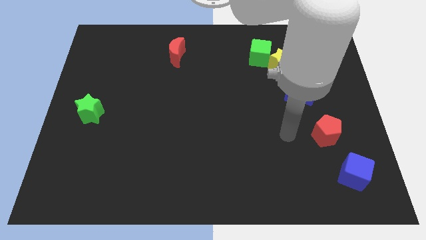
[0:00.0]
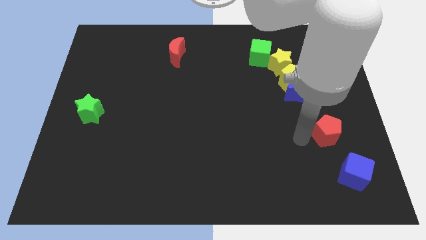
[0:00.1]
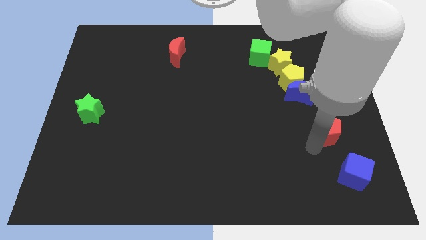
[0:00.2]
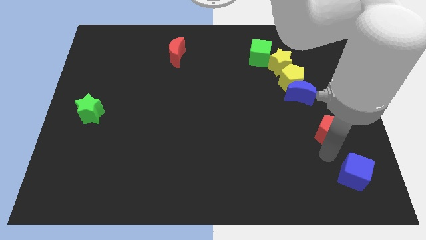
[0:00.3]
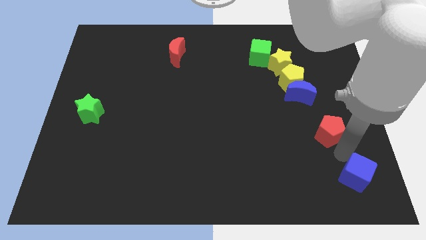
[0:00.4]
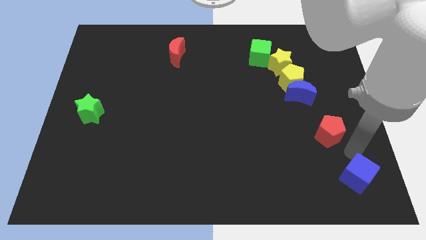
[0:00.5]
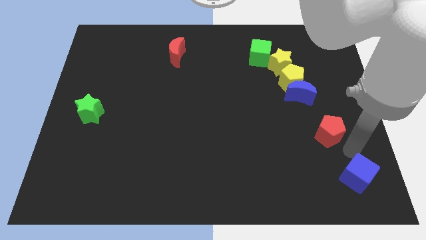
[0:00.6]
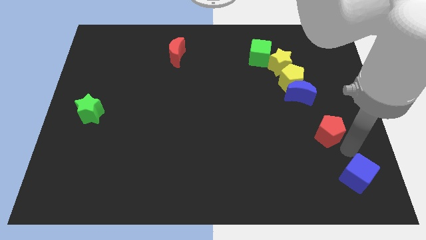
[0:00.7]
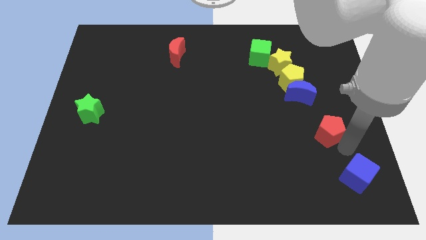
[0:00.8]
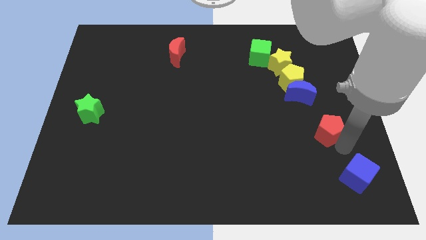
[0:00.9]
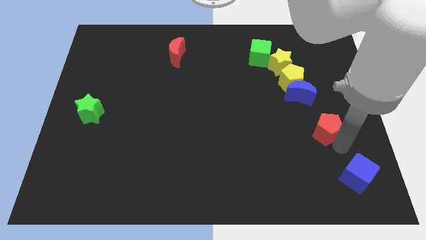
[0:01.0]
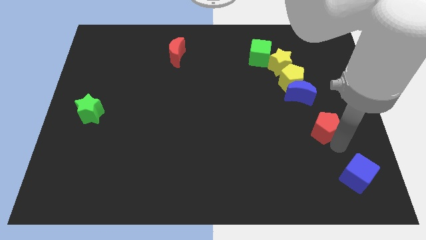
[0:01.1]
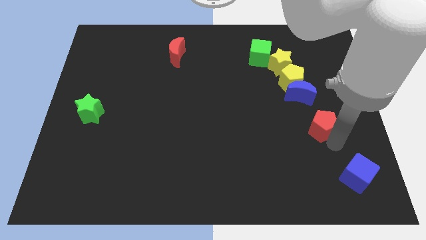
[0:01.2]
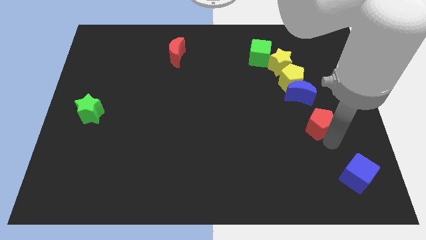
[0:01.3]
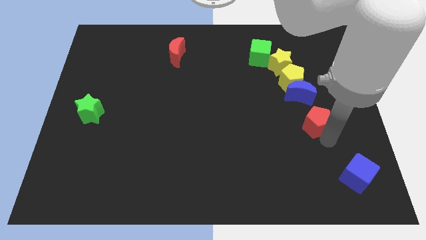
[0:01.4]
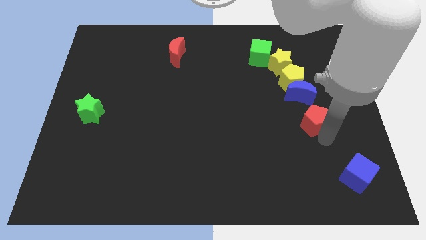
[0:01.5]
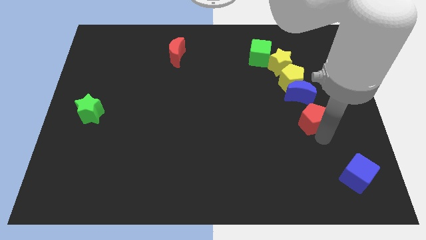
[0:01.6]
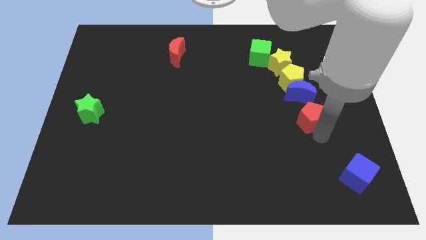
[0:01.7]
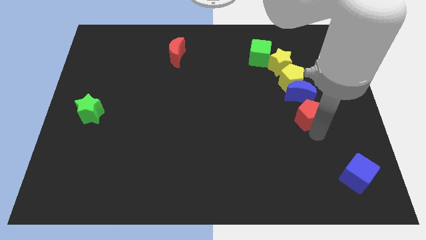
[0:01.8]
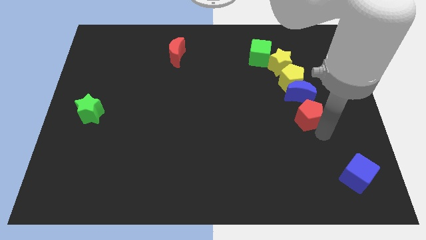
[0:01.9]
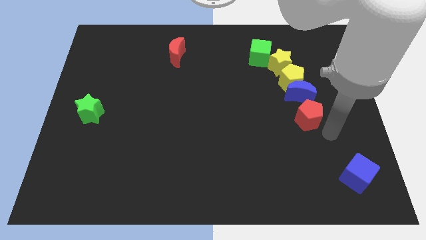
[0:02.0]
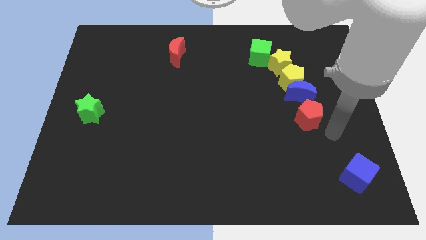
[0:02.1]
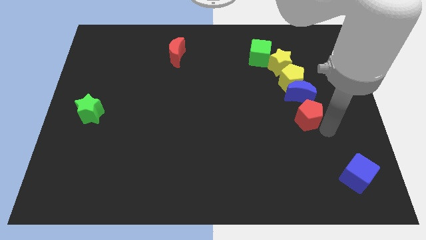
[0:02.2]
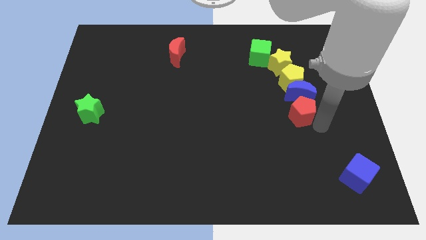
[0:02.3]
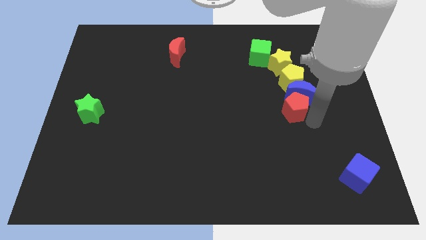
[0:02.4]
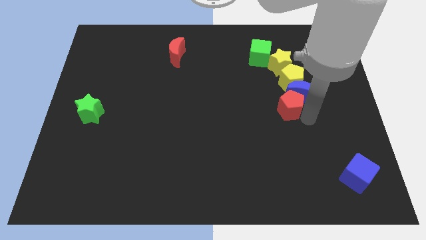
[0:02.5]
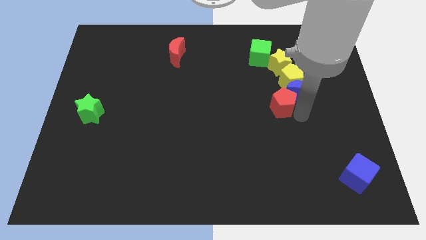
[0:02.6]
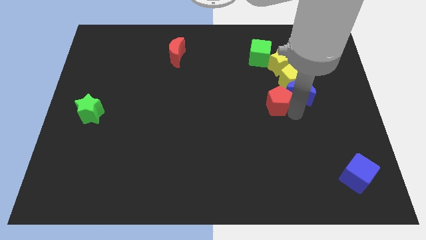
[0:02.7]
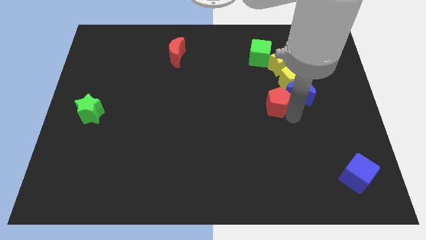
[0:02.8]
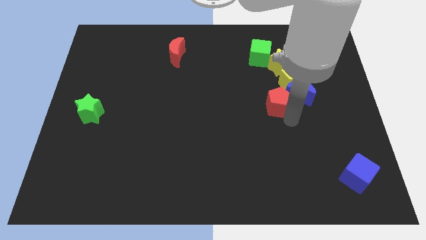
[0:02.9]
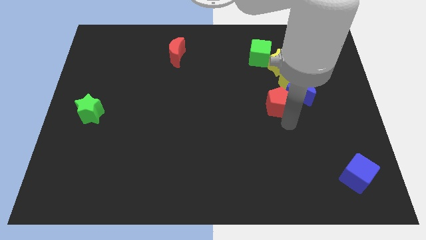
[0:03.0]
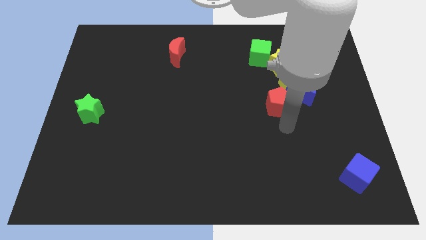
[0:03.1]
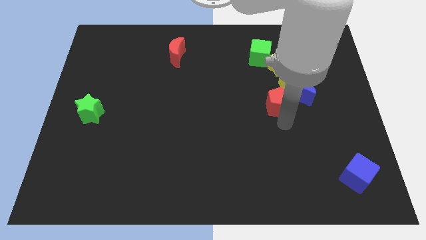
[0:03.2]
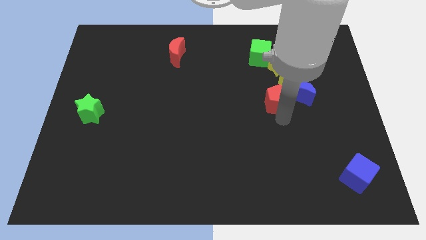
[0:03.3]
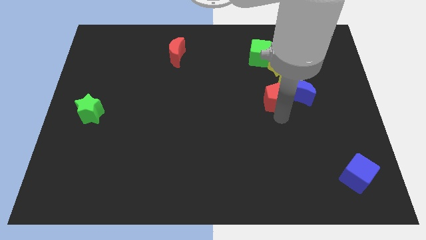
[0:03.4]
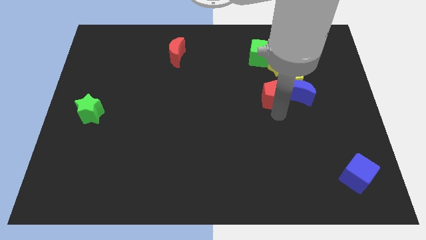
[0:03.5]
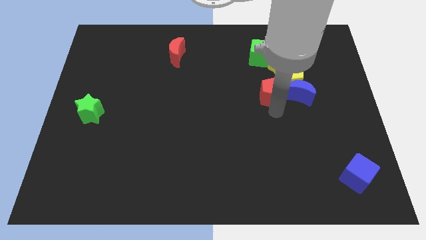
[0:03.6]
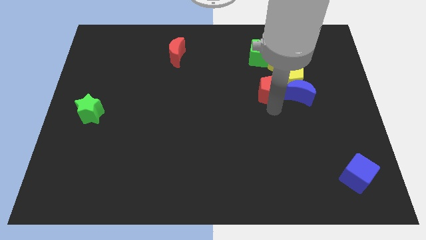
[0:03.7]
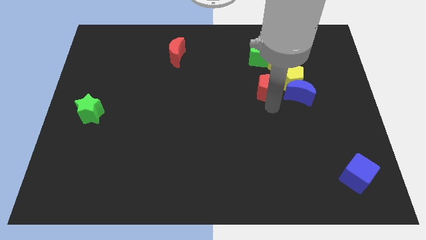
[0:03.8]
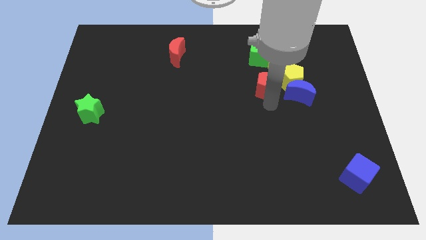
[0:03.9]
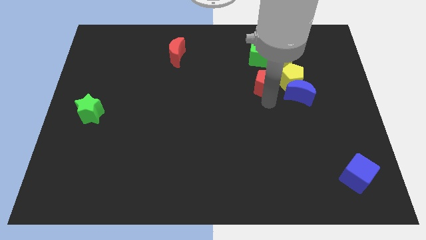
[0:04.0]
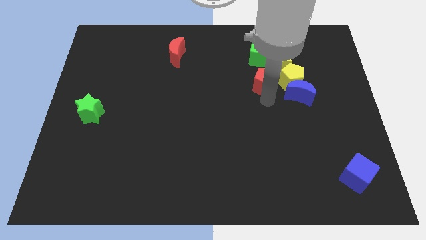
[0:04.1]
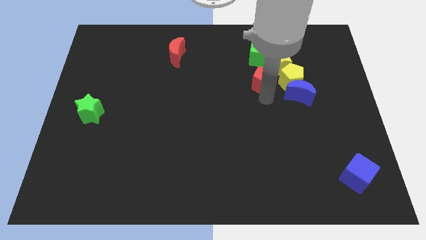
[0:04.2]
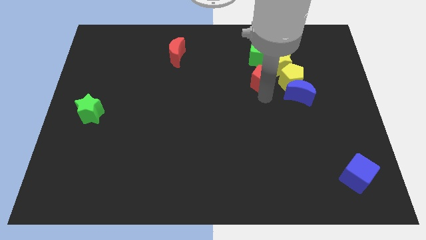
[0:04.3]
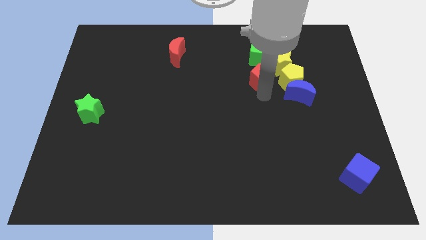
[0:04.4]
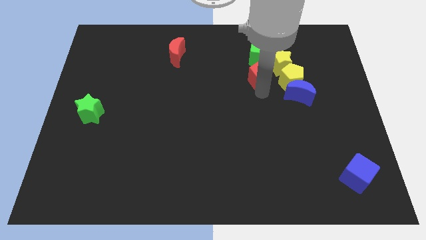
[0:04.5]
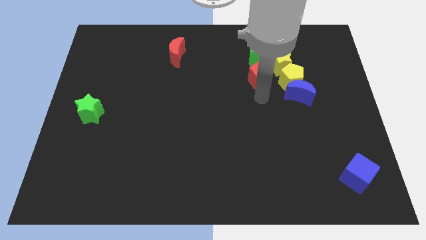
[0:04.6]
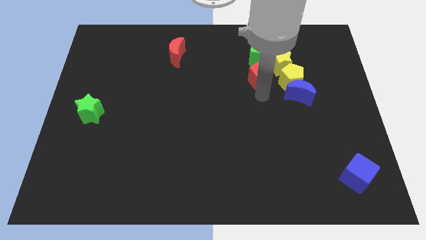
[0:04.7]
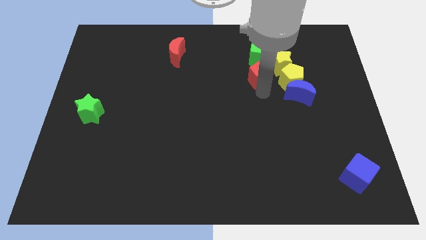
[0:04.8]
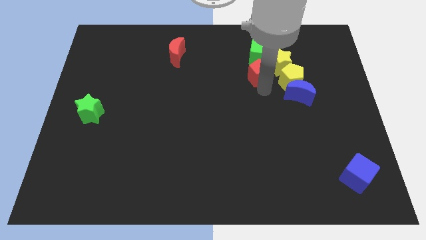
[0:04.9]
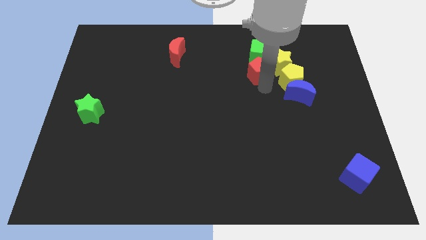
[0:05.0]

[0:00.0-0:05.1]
push the red pentagon to the green cube

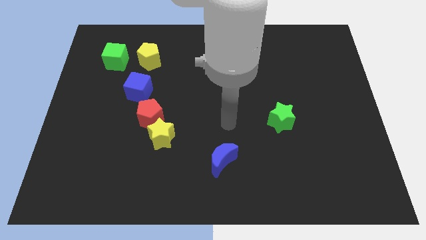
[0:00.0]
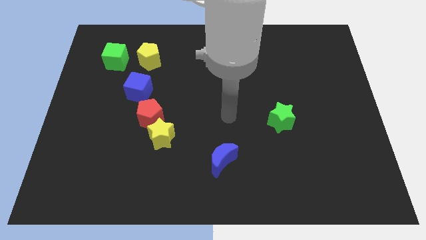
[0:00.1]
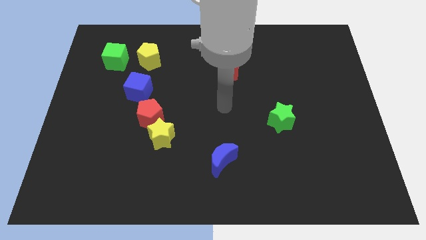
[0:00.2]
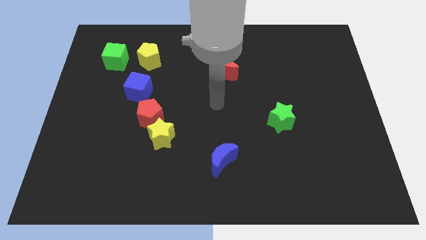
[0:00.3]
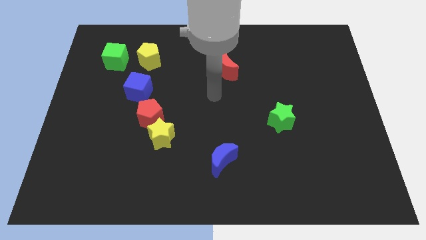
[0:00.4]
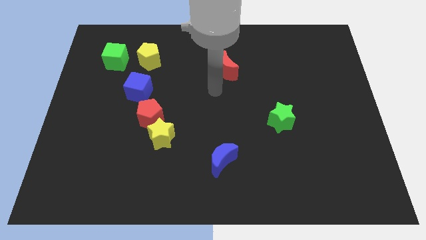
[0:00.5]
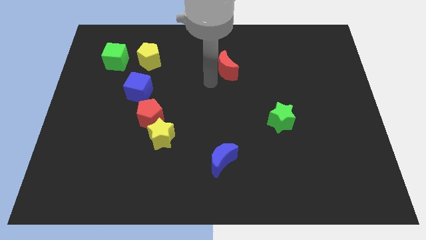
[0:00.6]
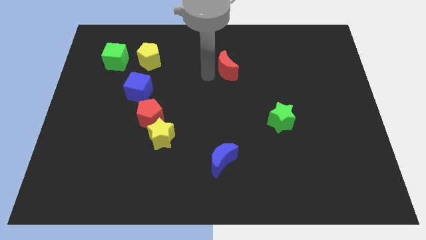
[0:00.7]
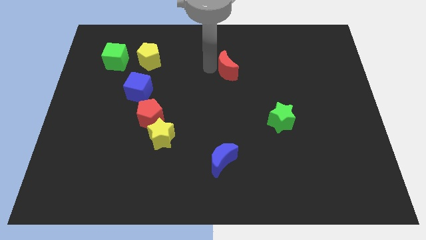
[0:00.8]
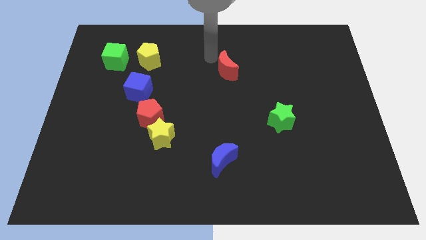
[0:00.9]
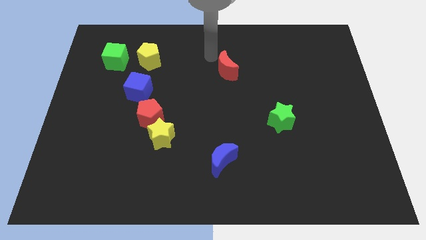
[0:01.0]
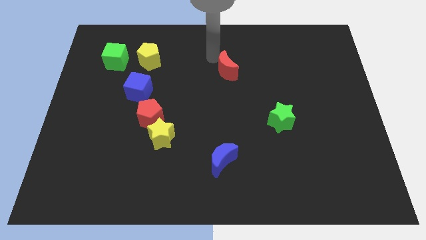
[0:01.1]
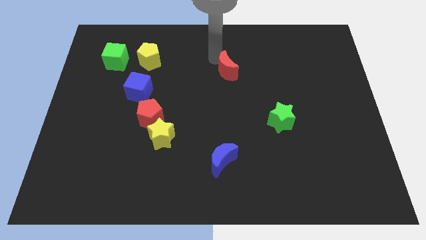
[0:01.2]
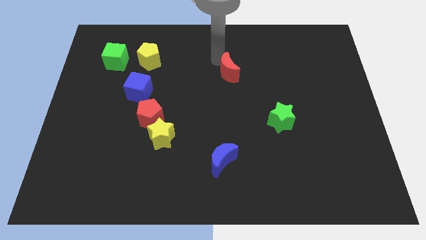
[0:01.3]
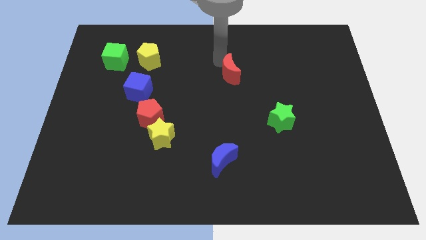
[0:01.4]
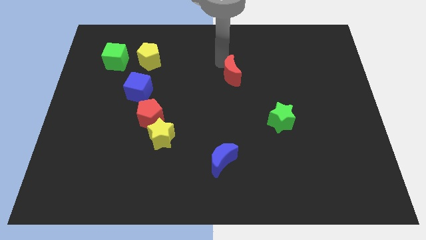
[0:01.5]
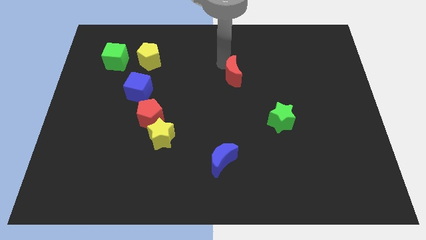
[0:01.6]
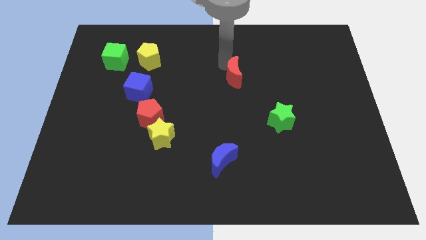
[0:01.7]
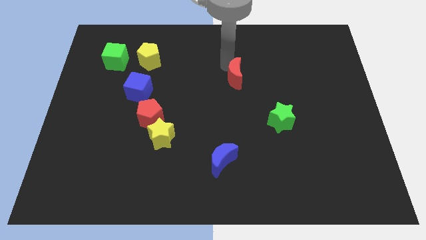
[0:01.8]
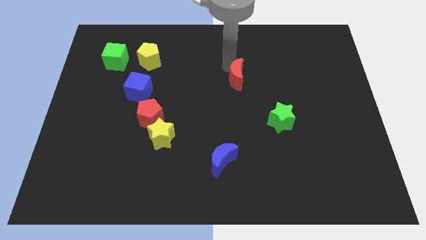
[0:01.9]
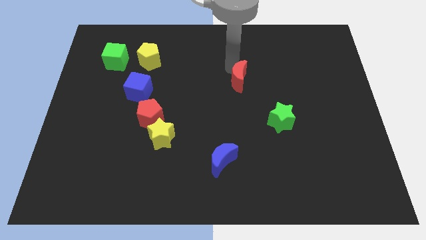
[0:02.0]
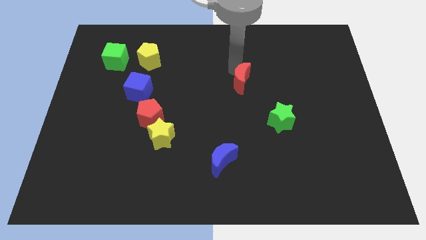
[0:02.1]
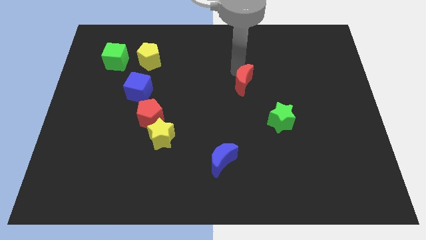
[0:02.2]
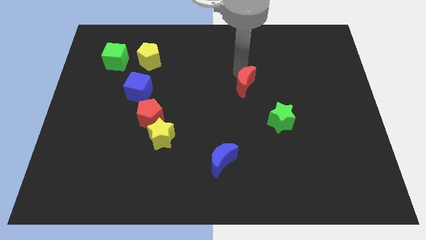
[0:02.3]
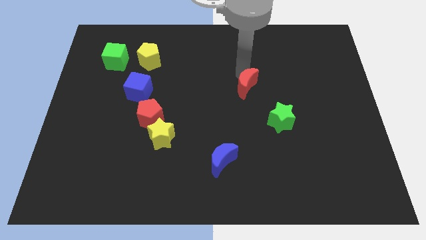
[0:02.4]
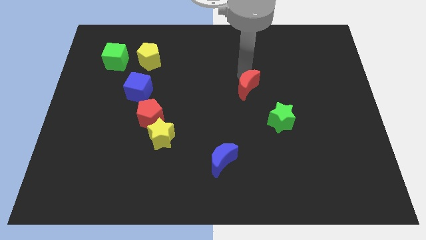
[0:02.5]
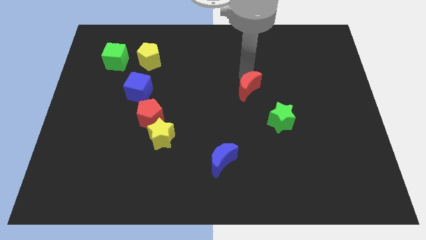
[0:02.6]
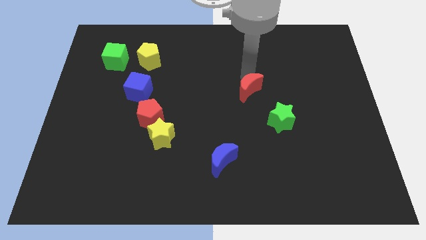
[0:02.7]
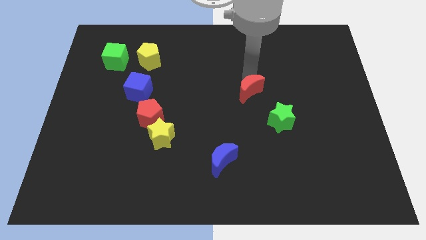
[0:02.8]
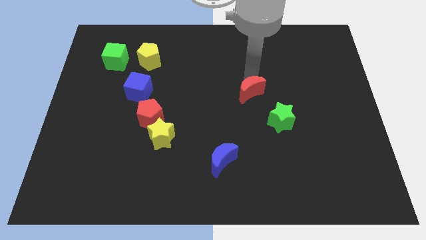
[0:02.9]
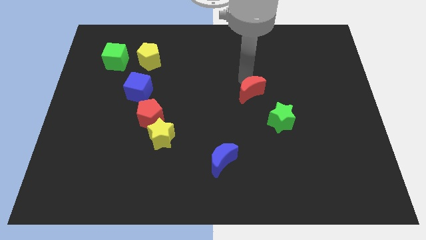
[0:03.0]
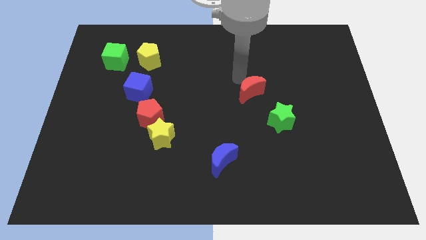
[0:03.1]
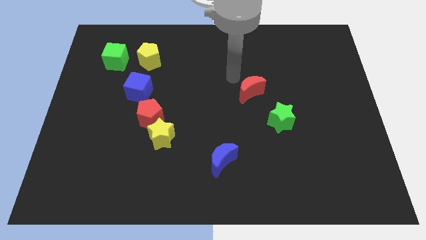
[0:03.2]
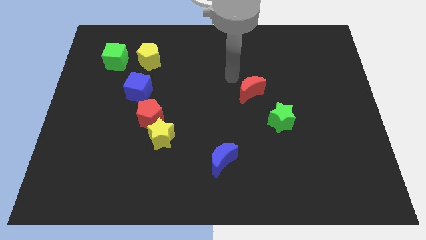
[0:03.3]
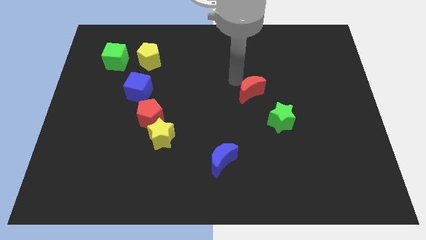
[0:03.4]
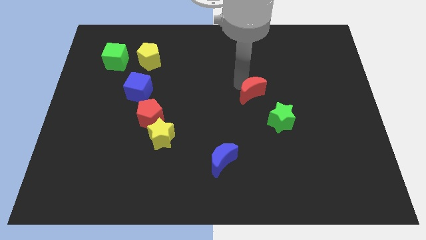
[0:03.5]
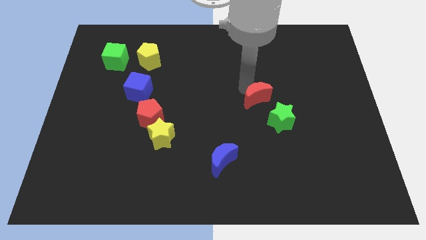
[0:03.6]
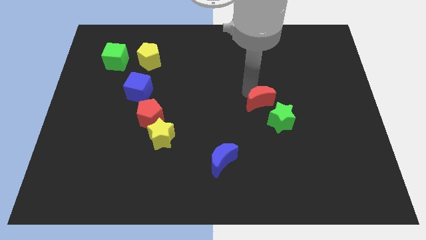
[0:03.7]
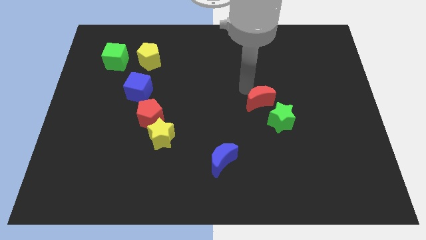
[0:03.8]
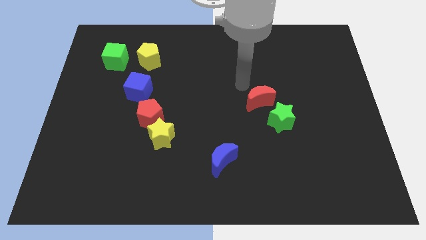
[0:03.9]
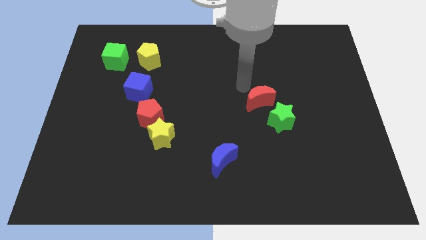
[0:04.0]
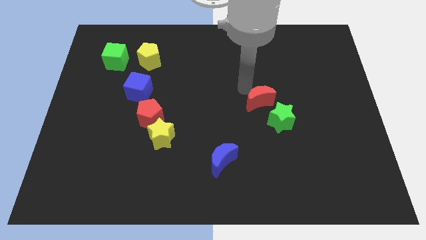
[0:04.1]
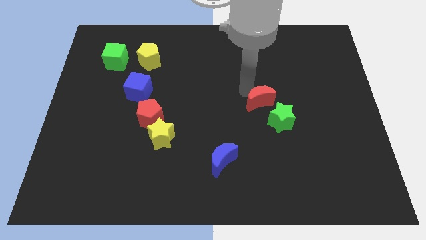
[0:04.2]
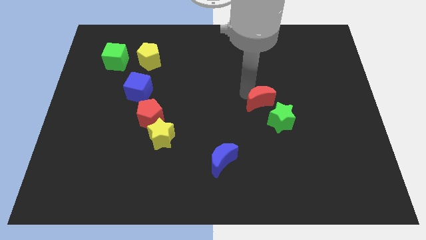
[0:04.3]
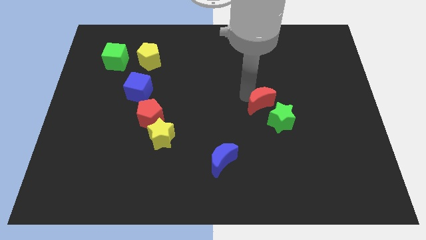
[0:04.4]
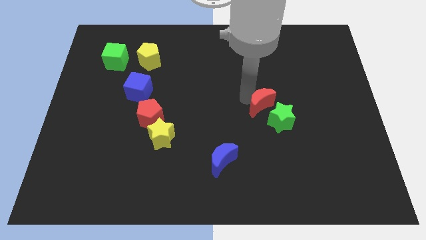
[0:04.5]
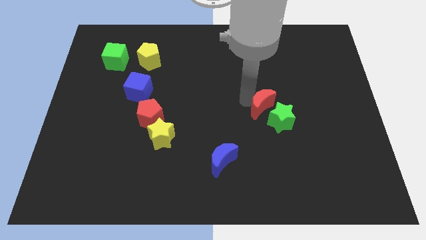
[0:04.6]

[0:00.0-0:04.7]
push the red moon to the green star
